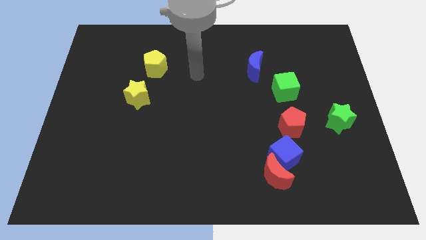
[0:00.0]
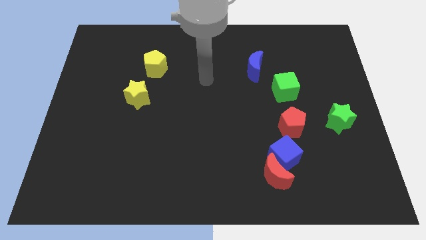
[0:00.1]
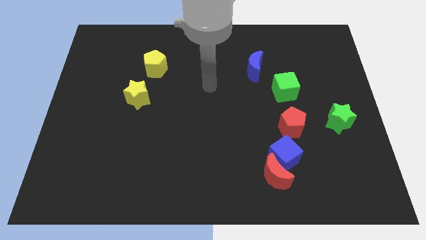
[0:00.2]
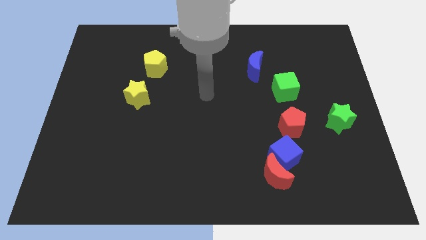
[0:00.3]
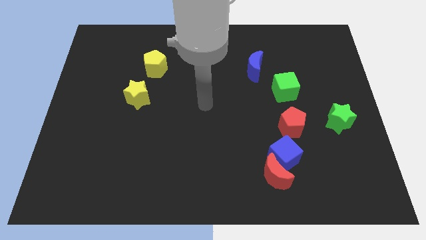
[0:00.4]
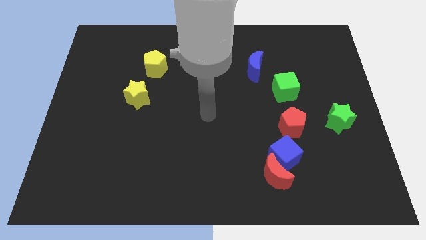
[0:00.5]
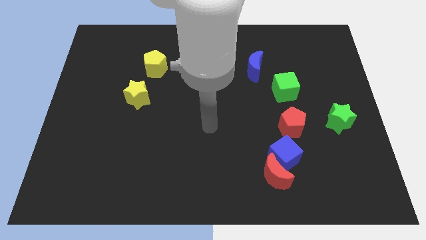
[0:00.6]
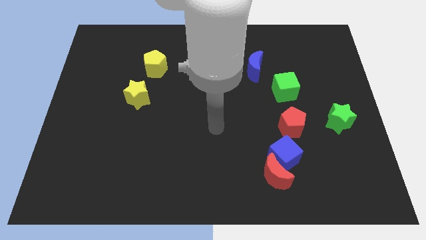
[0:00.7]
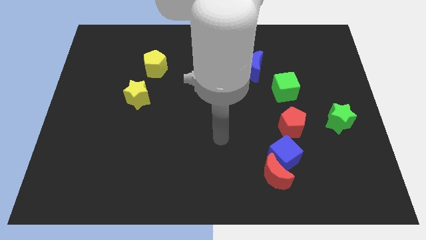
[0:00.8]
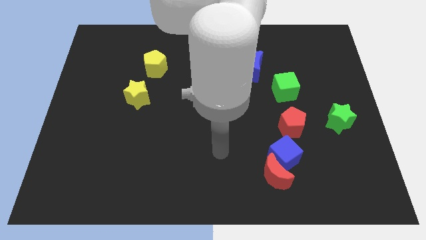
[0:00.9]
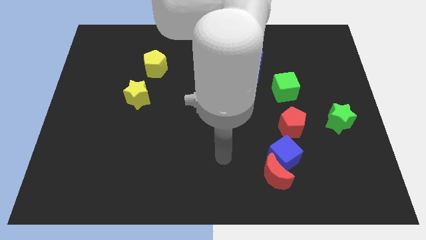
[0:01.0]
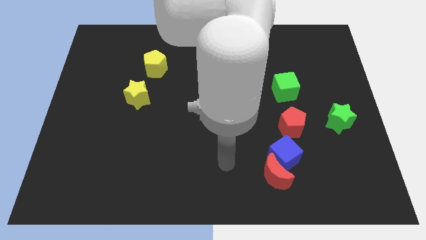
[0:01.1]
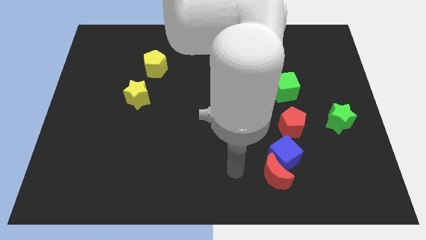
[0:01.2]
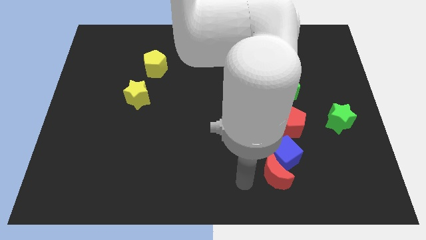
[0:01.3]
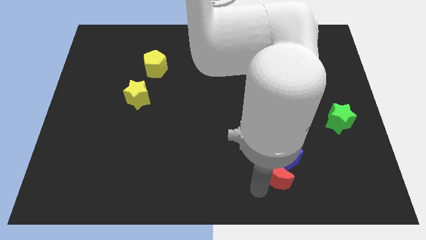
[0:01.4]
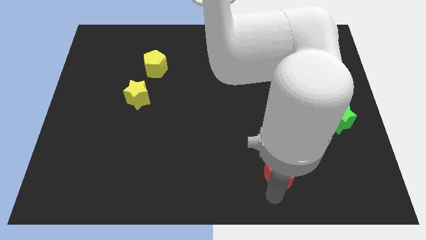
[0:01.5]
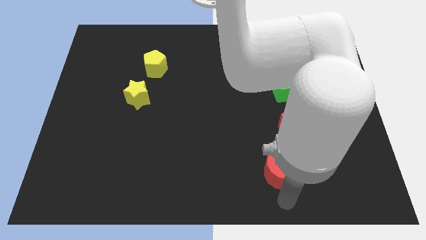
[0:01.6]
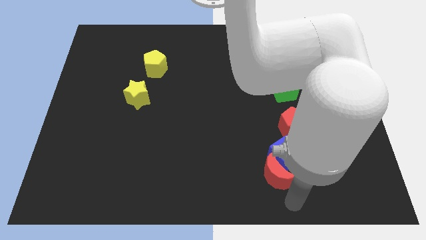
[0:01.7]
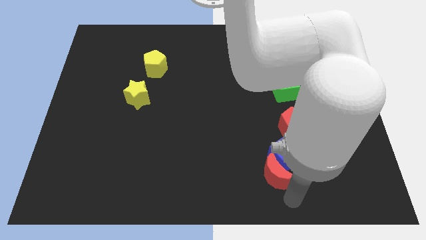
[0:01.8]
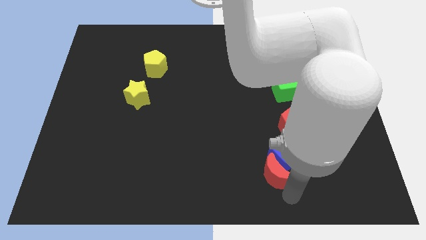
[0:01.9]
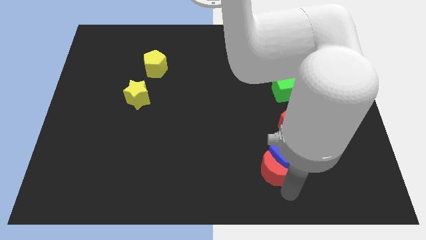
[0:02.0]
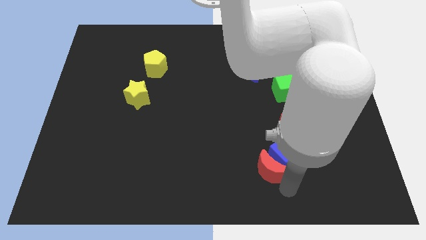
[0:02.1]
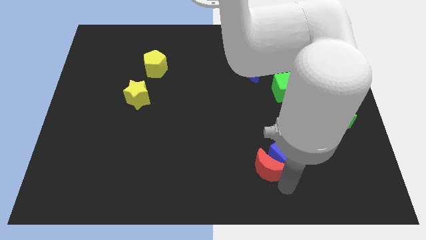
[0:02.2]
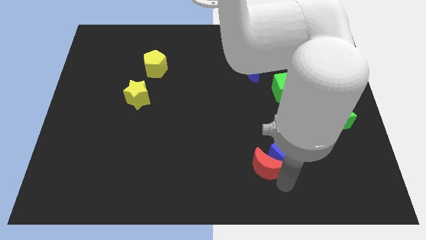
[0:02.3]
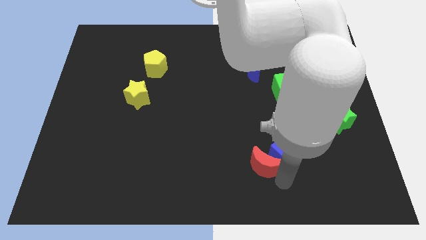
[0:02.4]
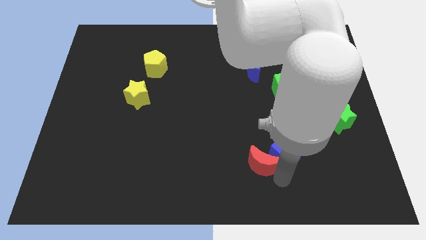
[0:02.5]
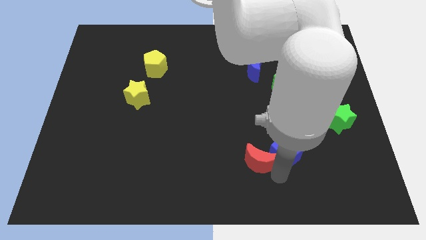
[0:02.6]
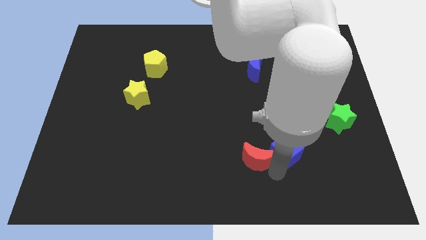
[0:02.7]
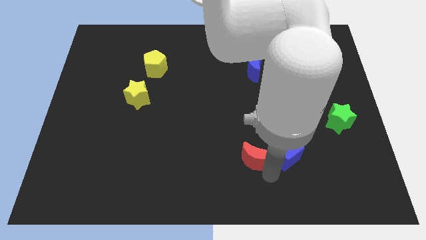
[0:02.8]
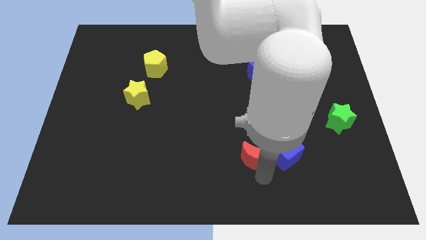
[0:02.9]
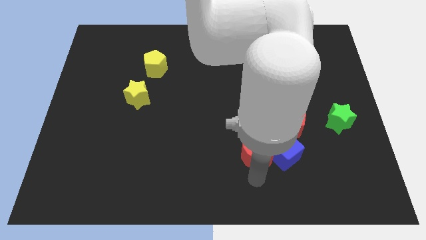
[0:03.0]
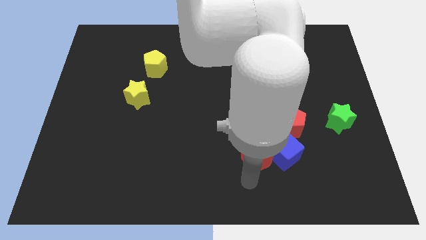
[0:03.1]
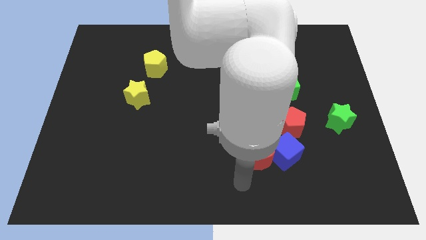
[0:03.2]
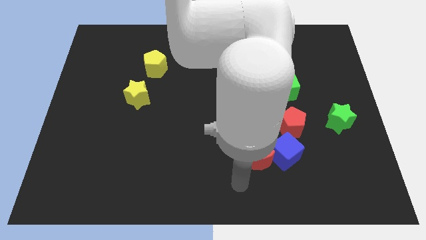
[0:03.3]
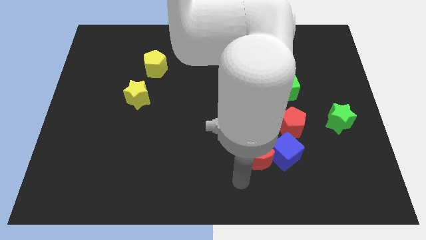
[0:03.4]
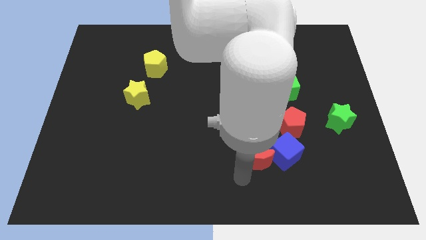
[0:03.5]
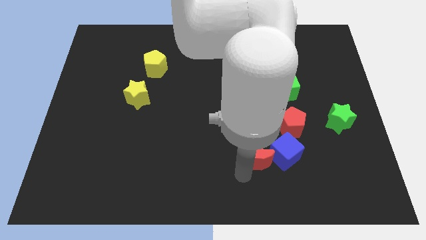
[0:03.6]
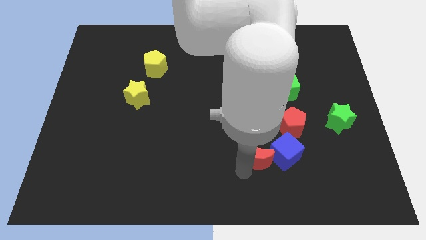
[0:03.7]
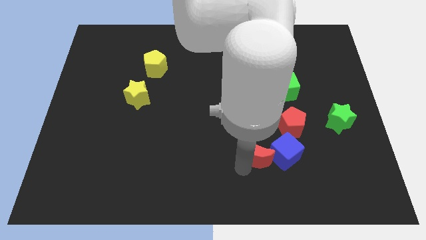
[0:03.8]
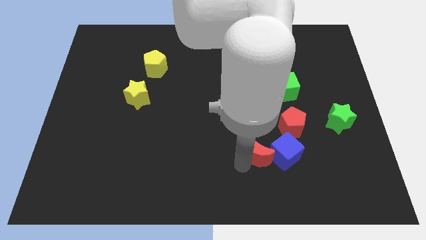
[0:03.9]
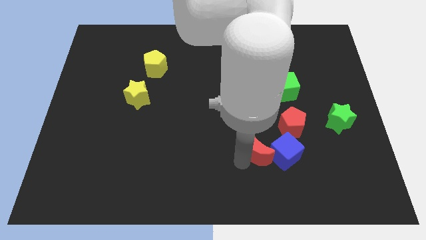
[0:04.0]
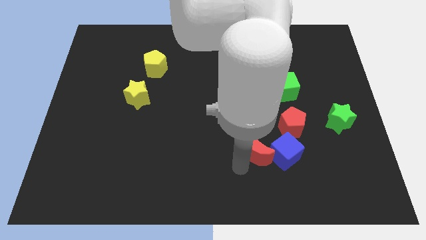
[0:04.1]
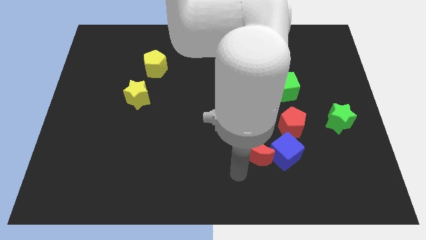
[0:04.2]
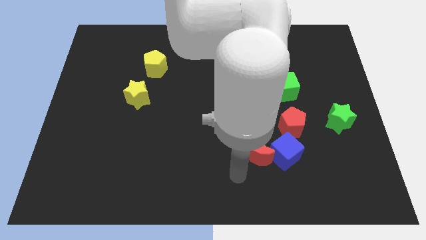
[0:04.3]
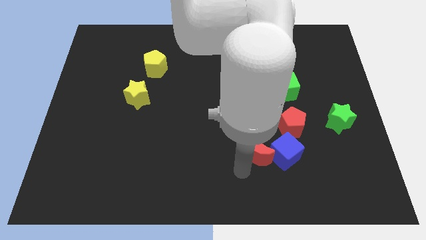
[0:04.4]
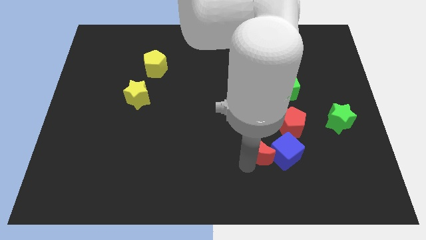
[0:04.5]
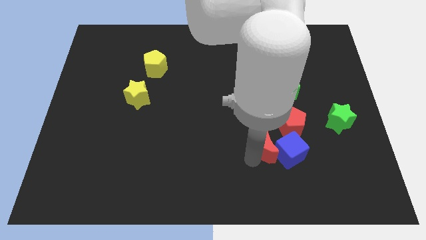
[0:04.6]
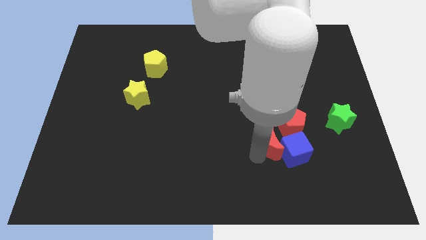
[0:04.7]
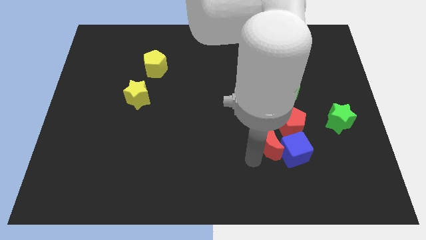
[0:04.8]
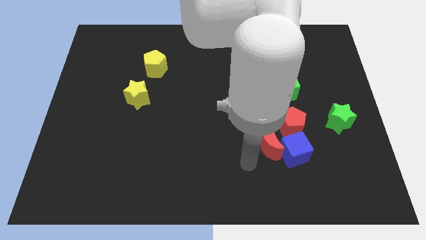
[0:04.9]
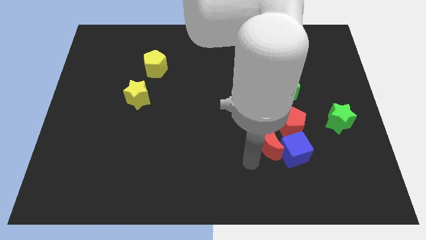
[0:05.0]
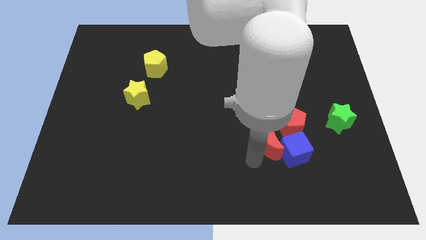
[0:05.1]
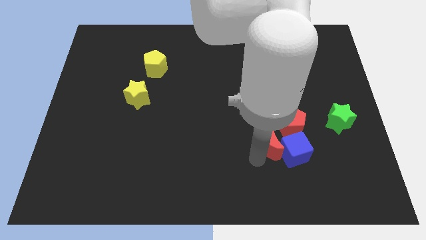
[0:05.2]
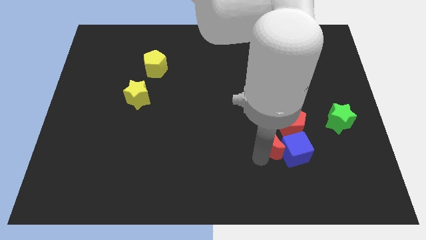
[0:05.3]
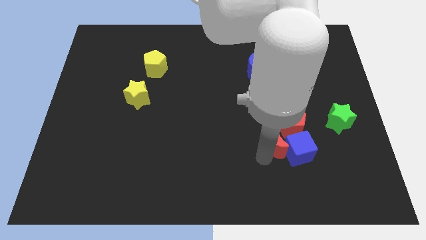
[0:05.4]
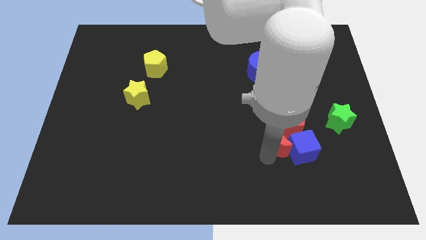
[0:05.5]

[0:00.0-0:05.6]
put the red moon to the red pentagon

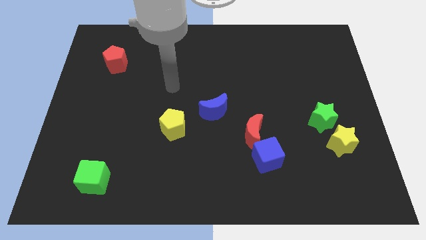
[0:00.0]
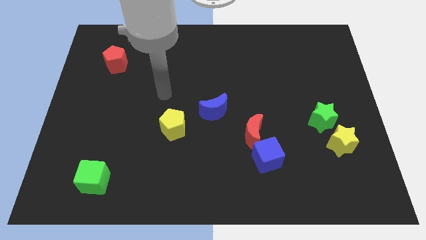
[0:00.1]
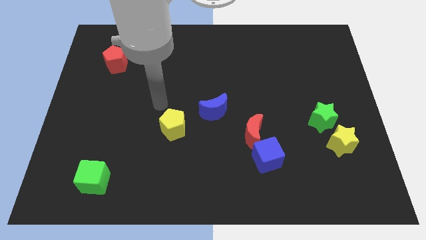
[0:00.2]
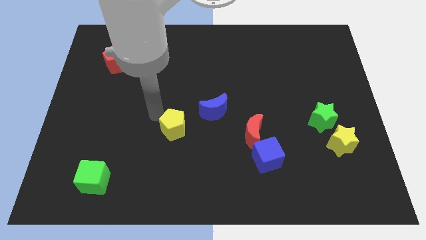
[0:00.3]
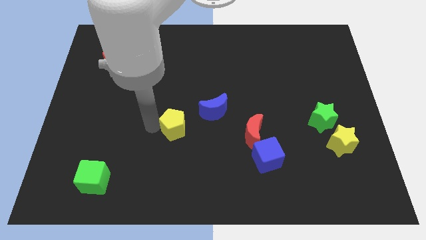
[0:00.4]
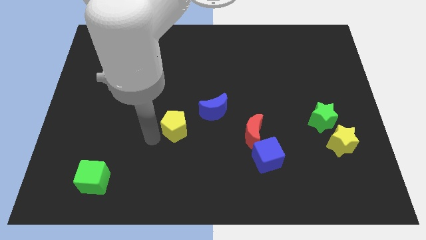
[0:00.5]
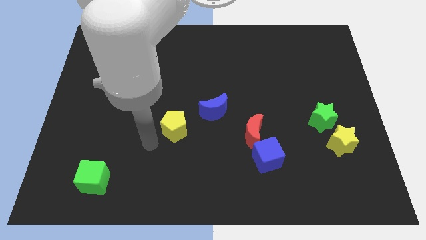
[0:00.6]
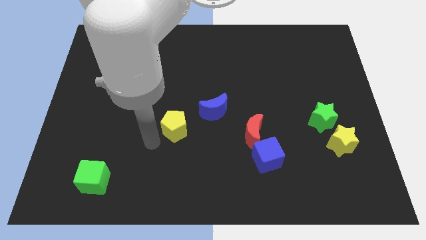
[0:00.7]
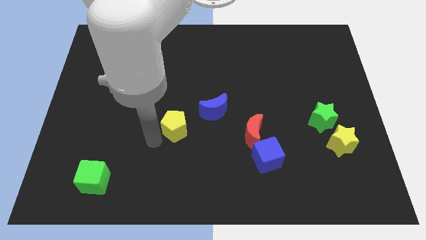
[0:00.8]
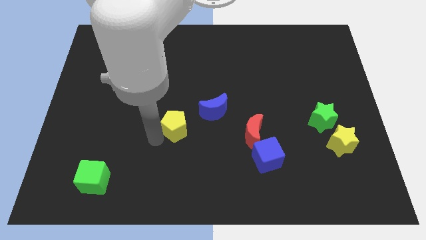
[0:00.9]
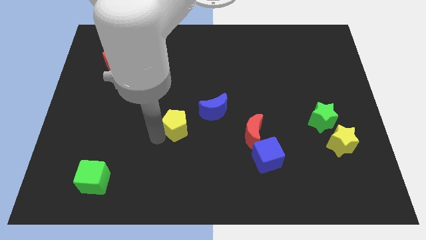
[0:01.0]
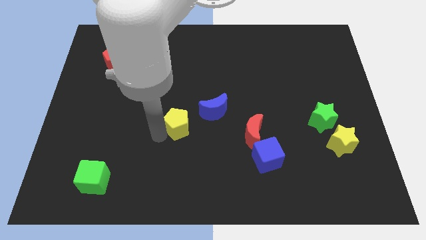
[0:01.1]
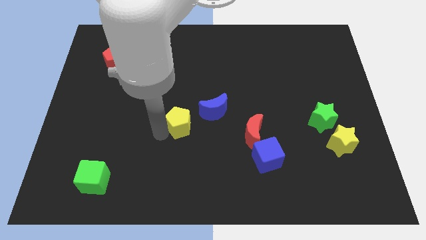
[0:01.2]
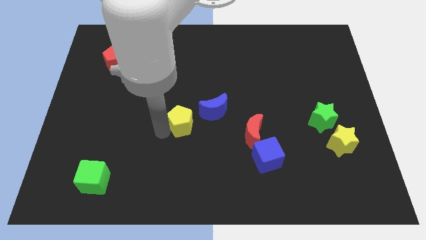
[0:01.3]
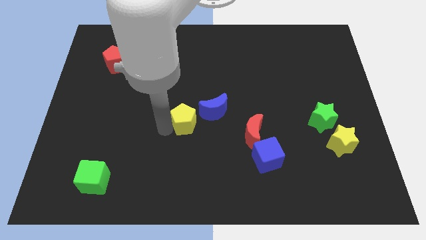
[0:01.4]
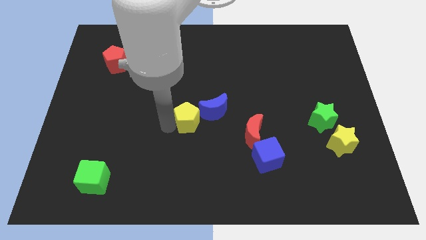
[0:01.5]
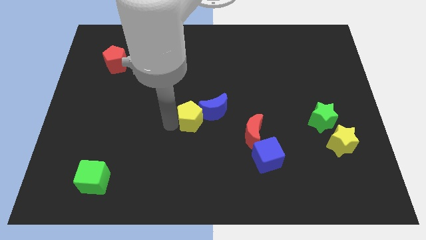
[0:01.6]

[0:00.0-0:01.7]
push the yellow pentagon close to the blue moon
